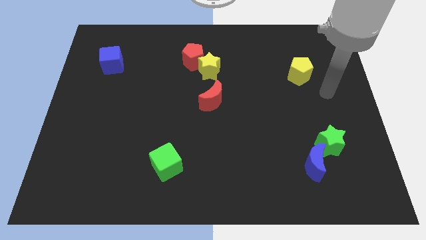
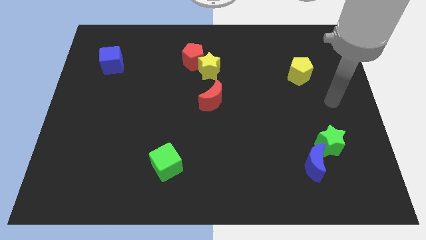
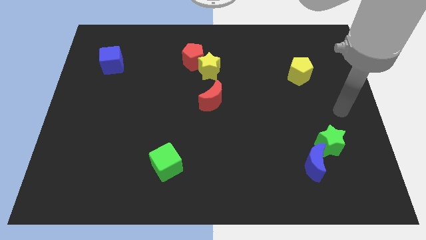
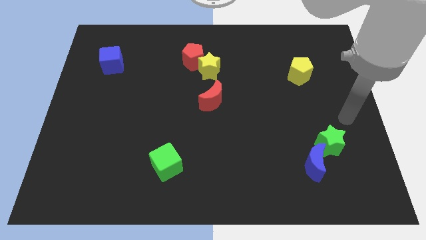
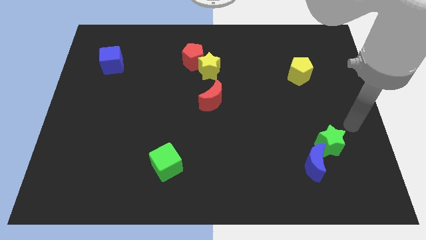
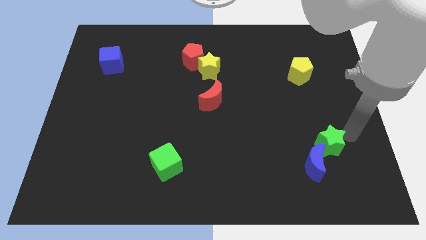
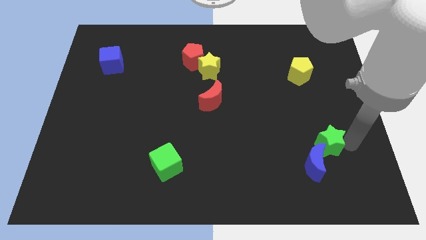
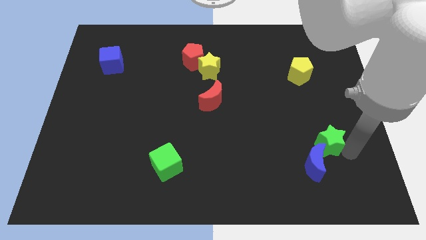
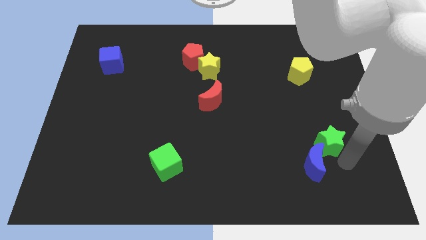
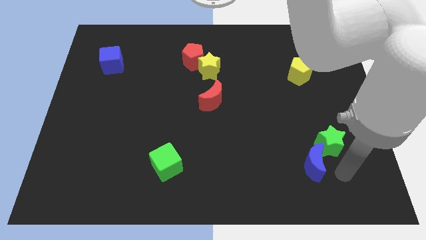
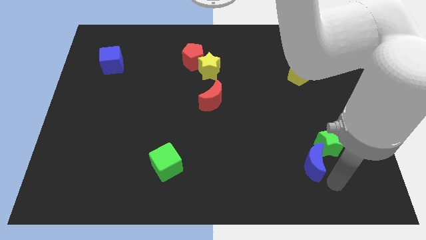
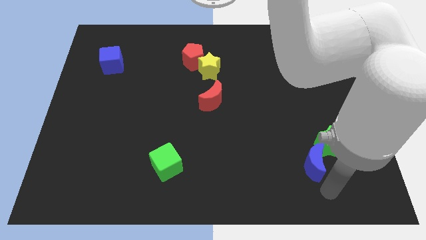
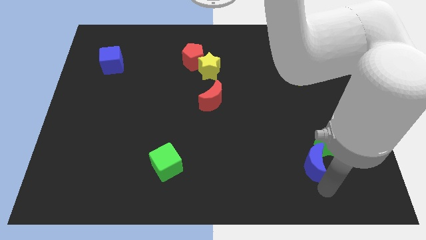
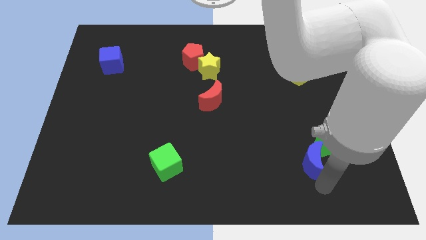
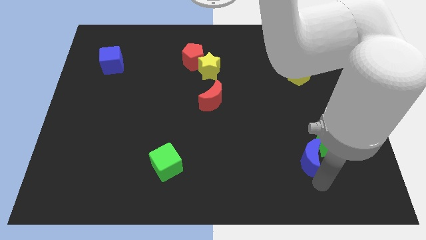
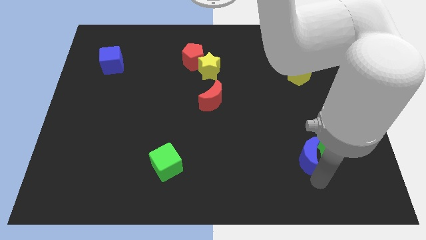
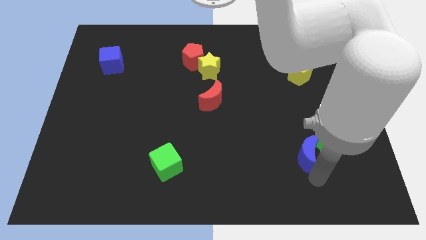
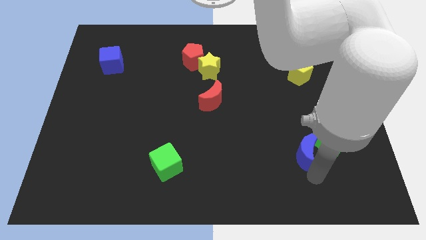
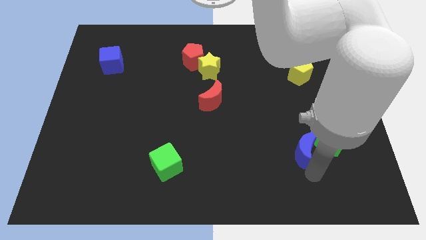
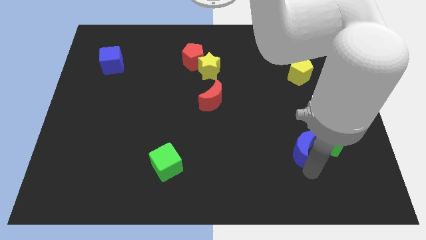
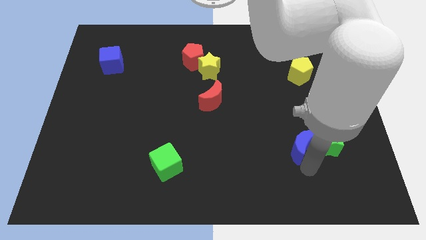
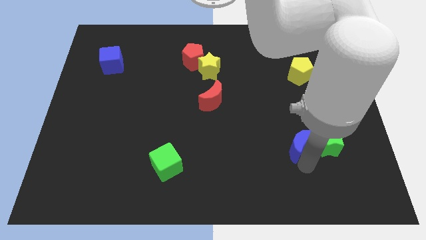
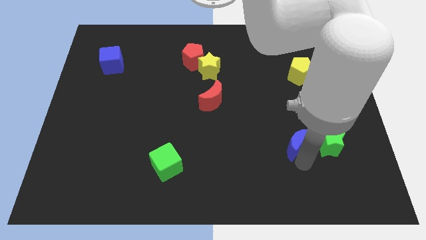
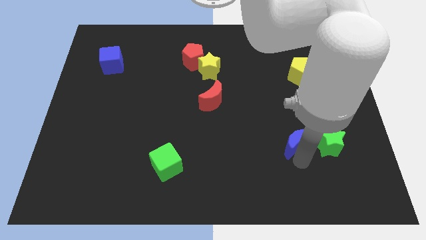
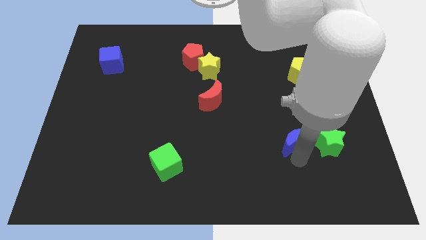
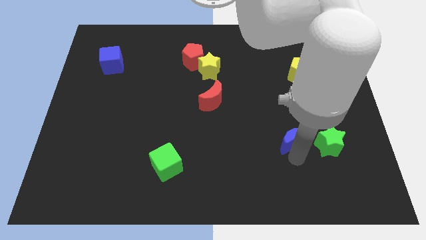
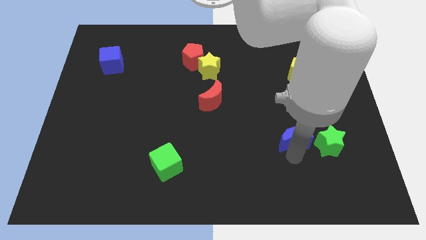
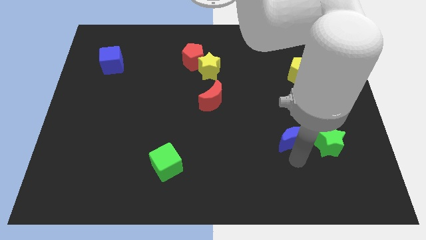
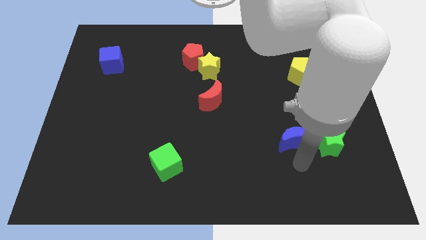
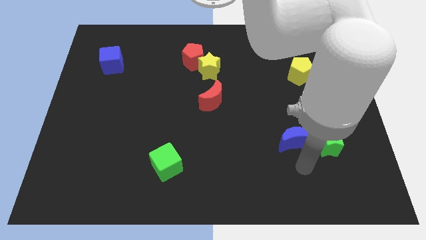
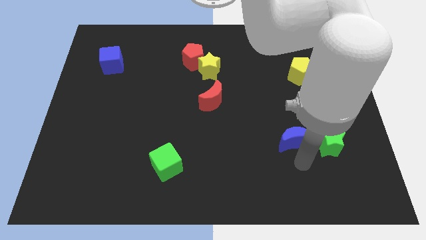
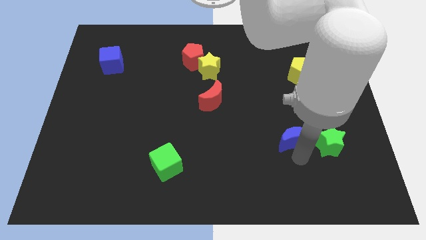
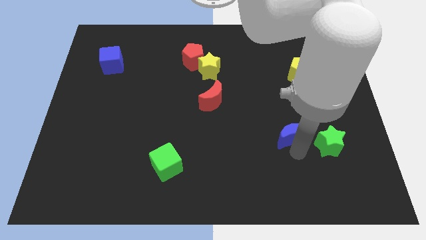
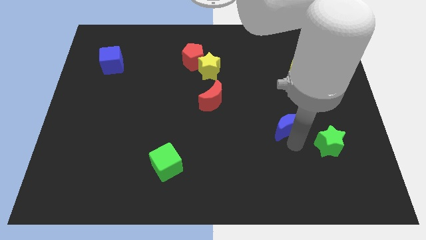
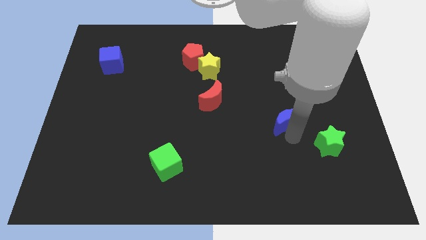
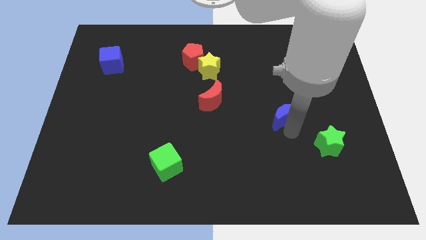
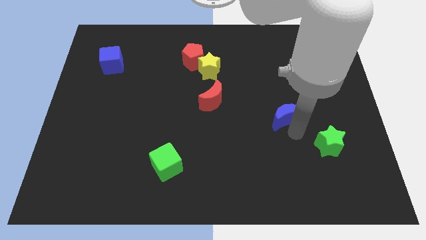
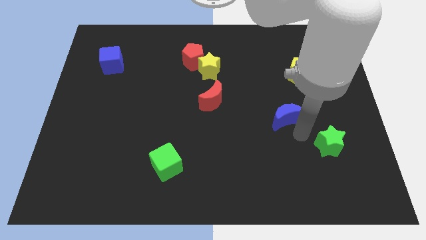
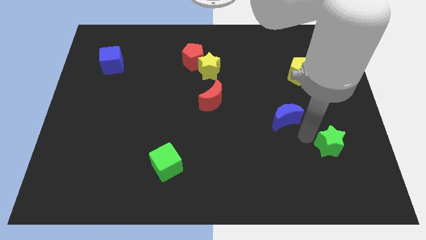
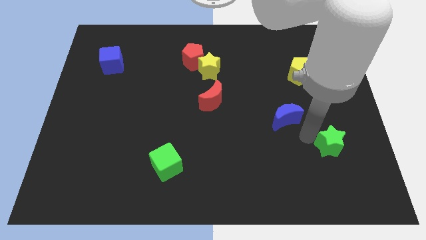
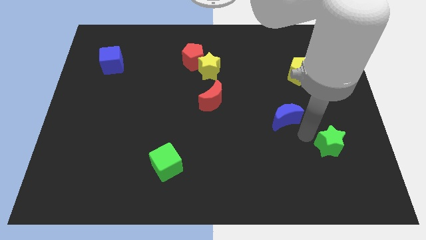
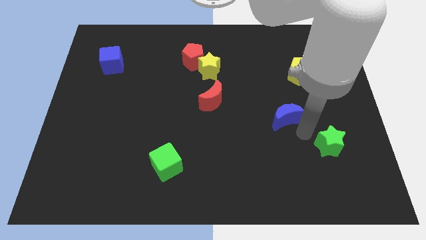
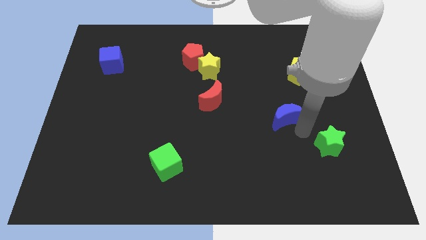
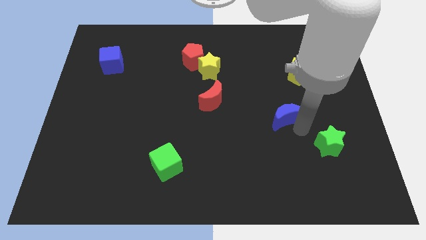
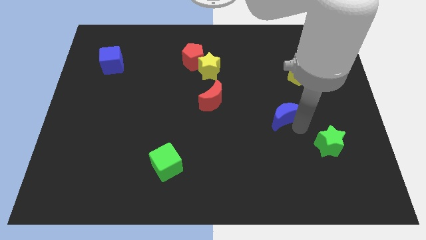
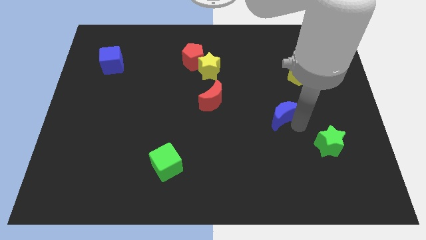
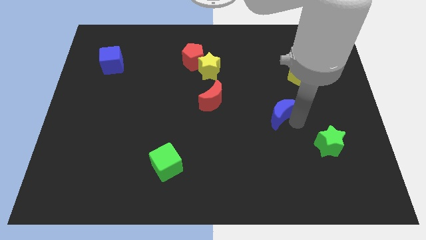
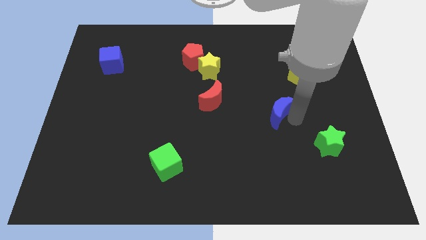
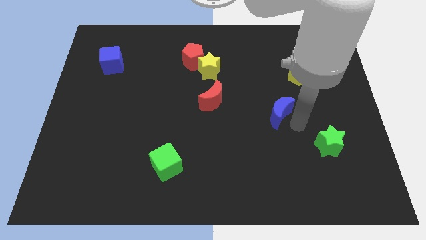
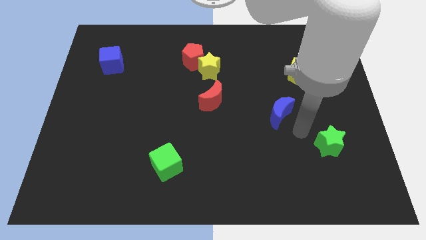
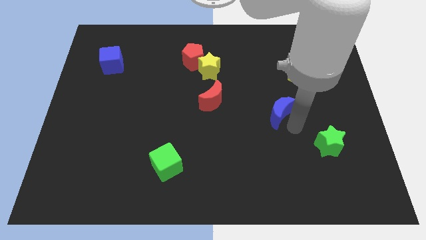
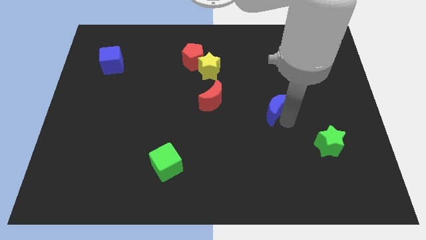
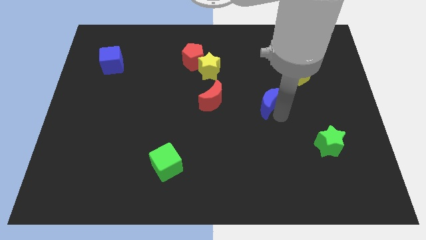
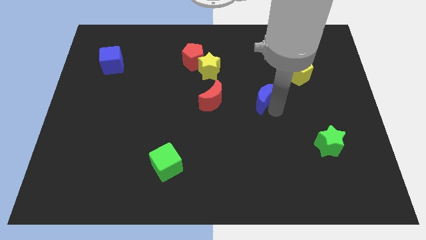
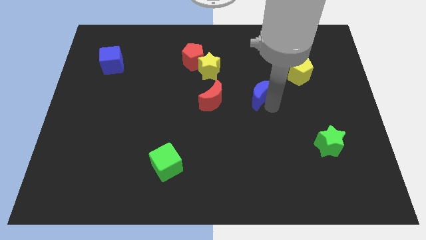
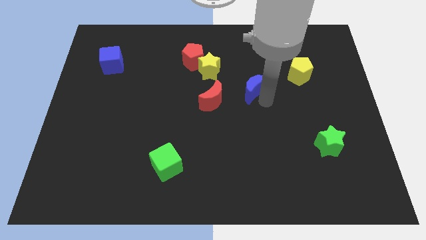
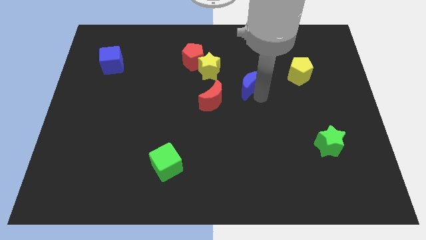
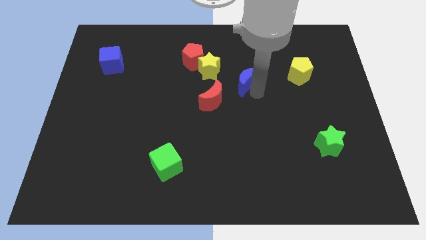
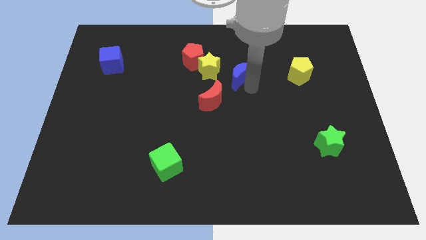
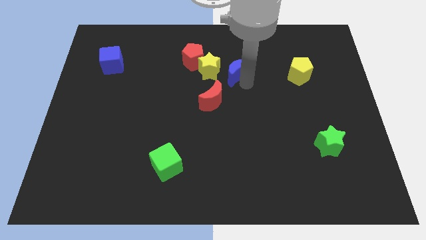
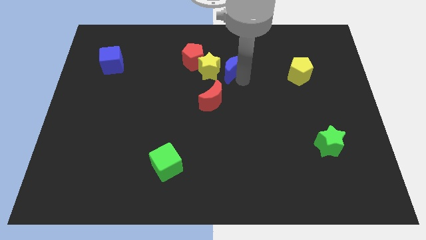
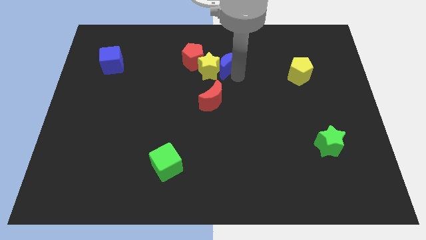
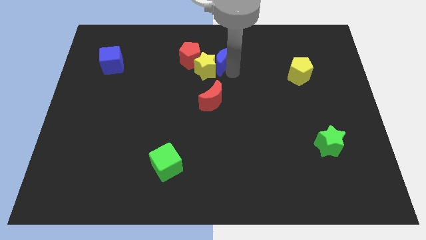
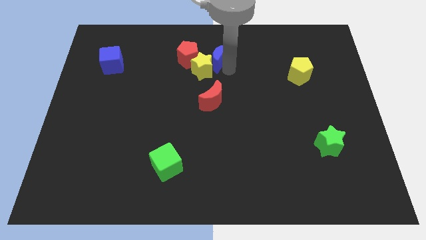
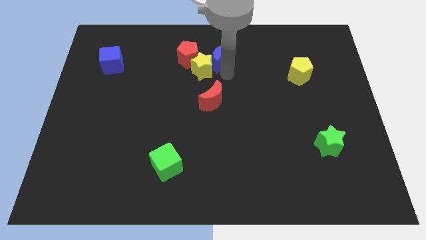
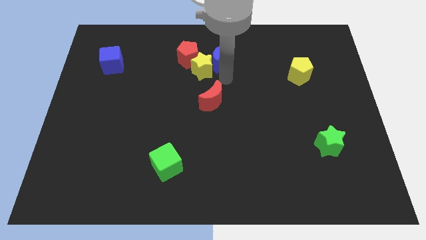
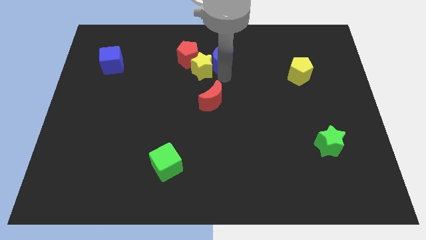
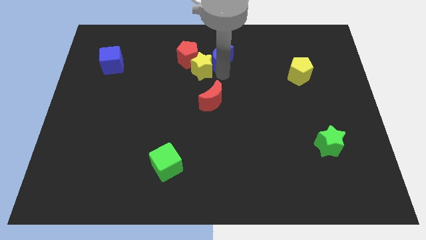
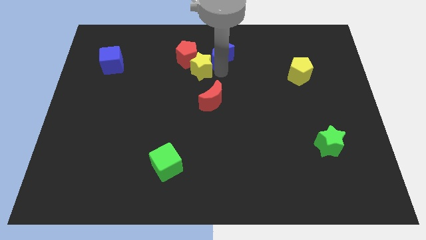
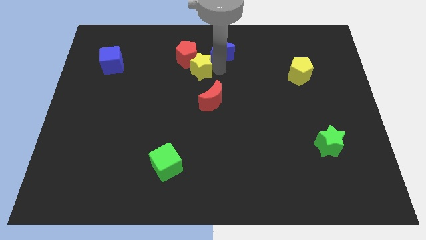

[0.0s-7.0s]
put the blue moon to the top
